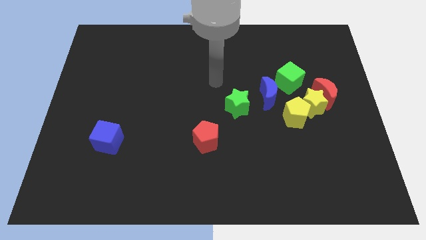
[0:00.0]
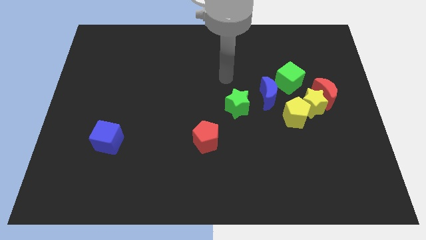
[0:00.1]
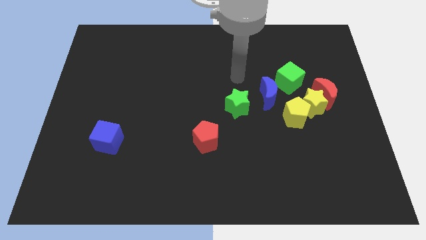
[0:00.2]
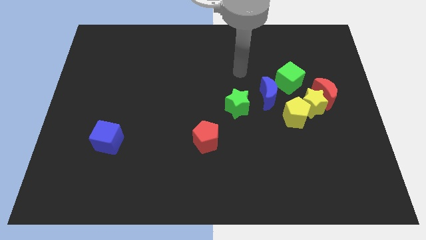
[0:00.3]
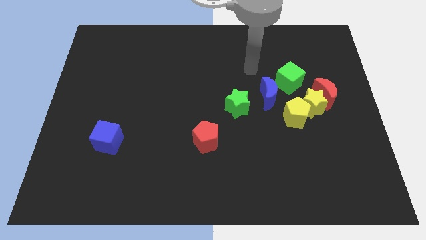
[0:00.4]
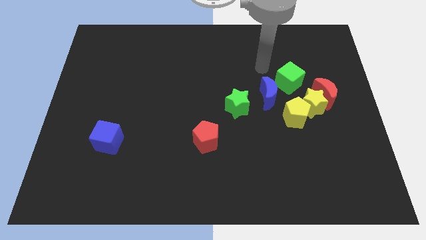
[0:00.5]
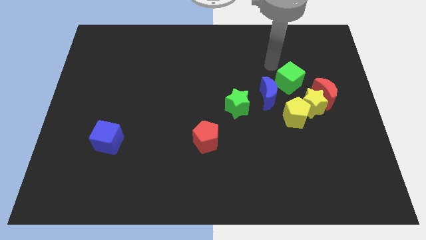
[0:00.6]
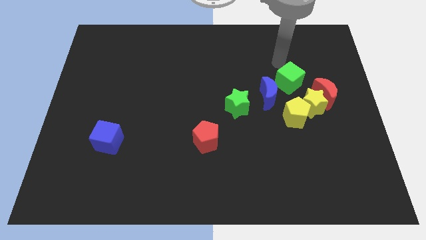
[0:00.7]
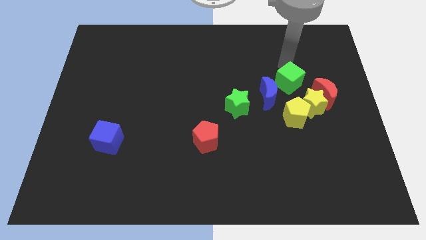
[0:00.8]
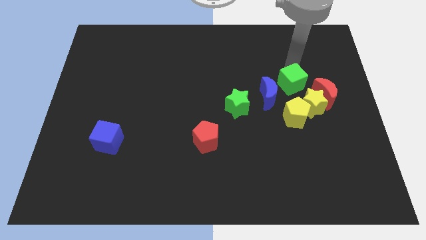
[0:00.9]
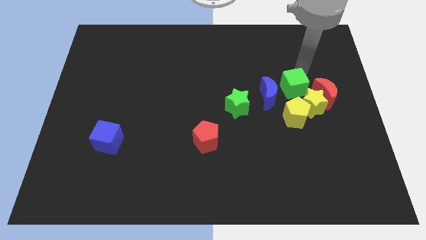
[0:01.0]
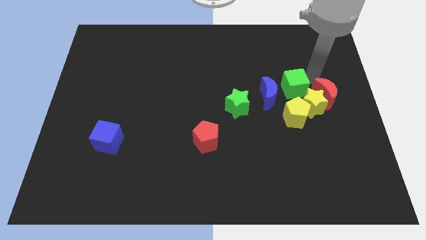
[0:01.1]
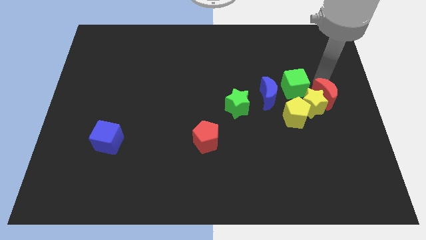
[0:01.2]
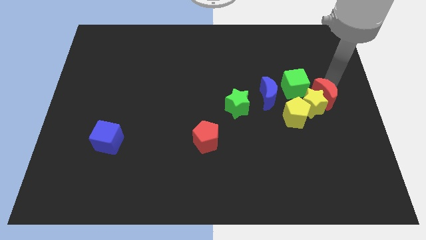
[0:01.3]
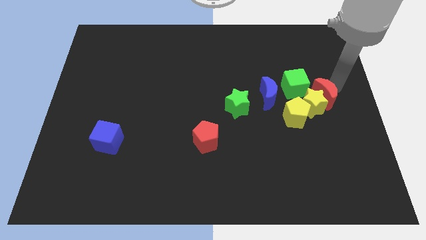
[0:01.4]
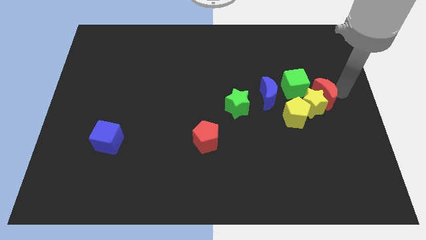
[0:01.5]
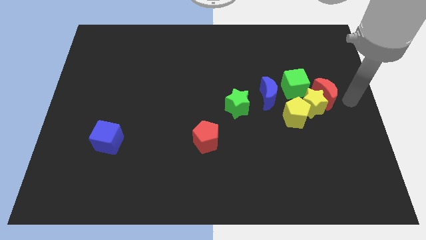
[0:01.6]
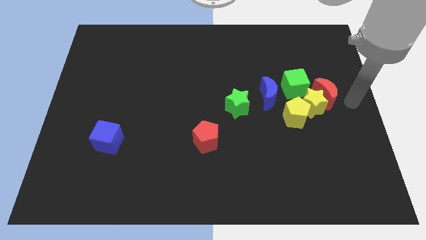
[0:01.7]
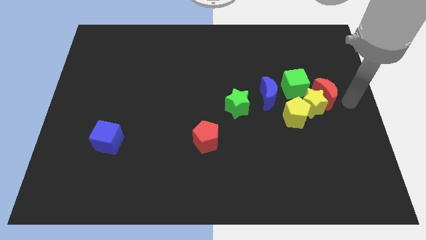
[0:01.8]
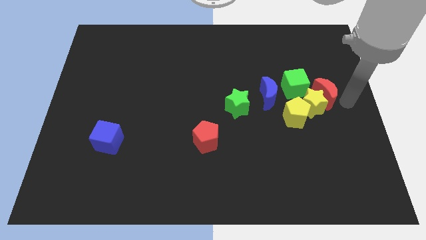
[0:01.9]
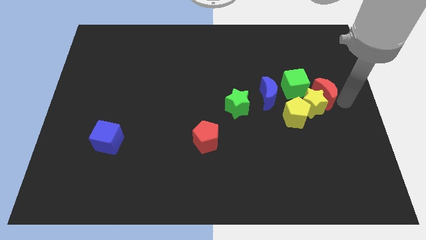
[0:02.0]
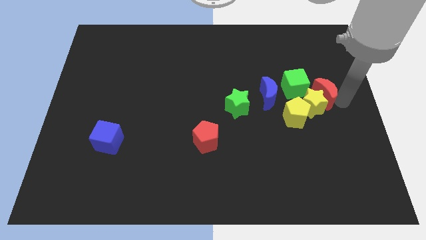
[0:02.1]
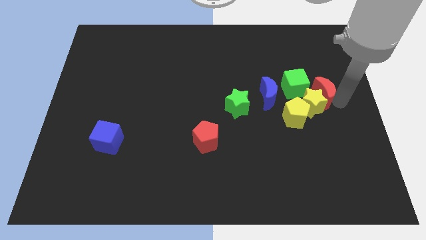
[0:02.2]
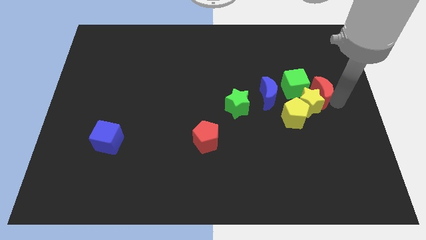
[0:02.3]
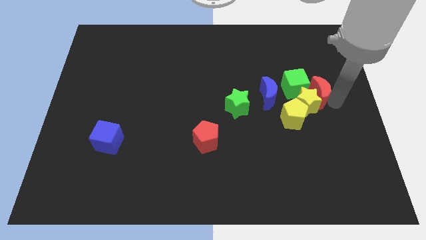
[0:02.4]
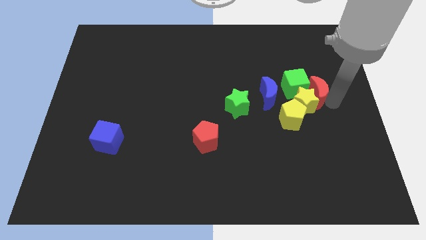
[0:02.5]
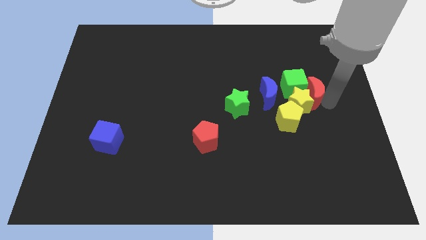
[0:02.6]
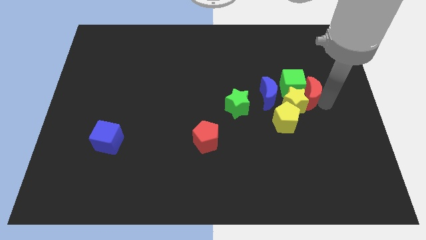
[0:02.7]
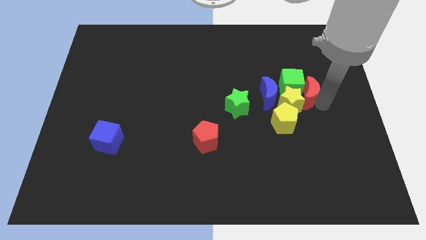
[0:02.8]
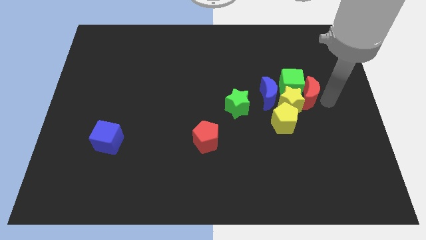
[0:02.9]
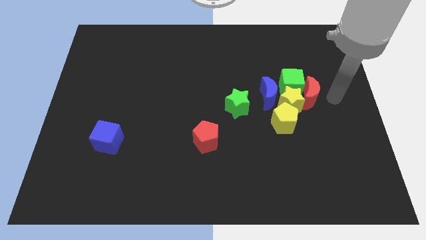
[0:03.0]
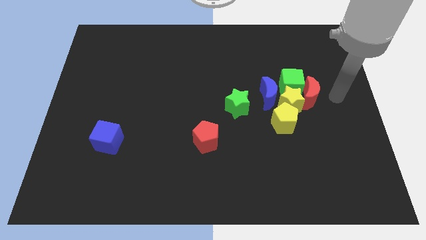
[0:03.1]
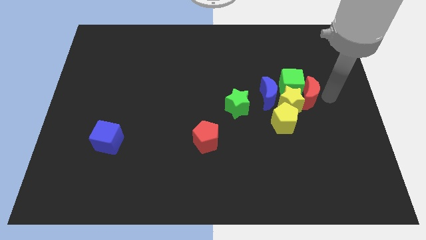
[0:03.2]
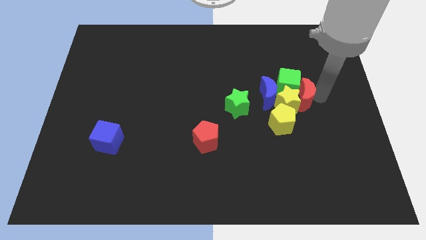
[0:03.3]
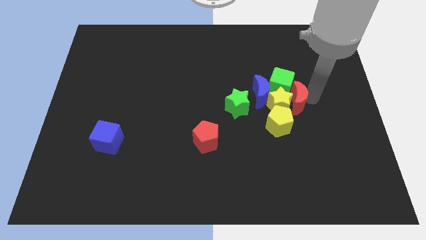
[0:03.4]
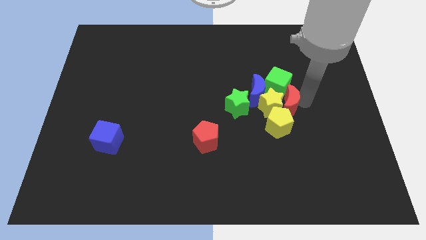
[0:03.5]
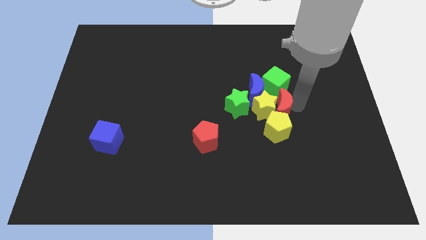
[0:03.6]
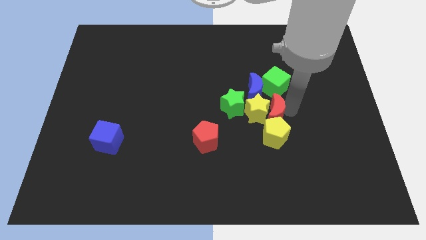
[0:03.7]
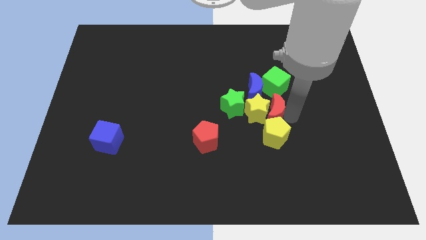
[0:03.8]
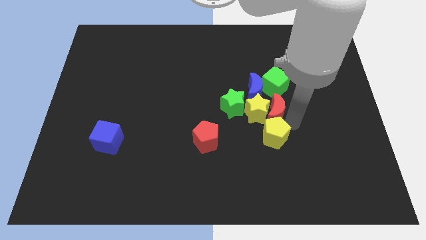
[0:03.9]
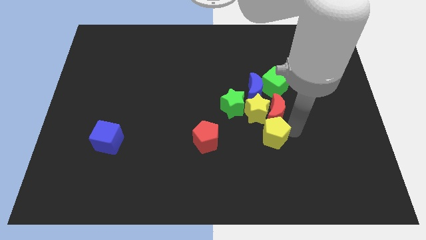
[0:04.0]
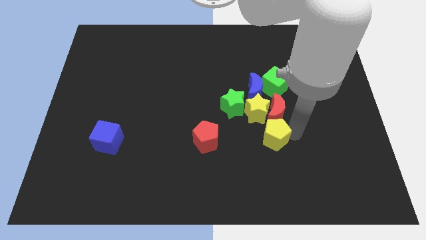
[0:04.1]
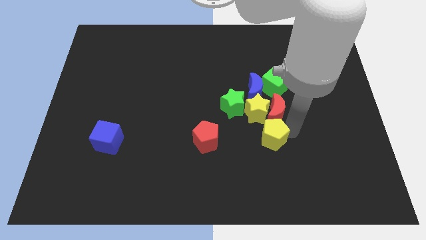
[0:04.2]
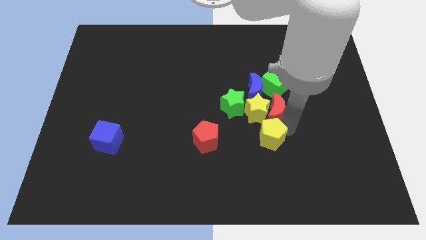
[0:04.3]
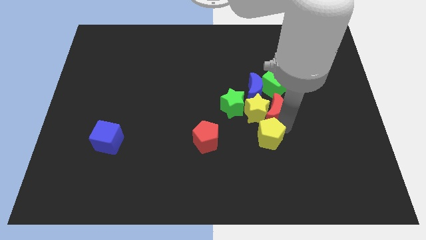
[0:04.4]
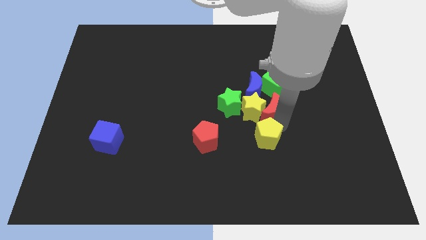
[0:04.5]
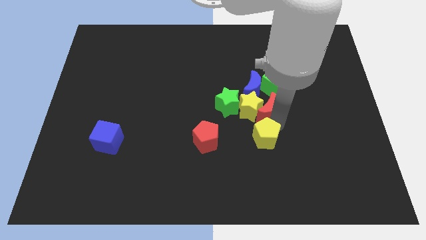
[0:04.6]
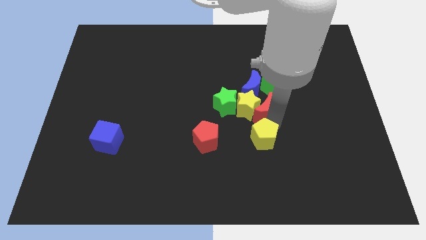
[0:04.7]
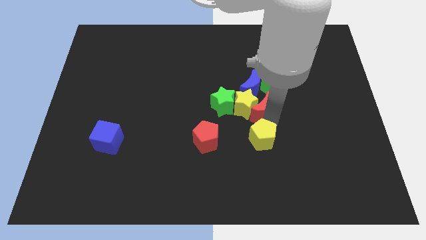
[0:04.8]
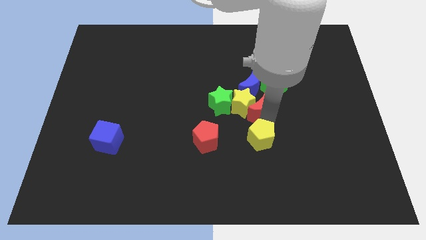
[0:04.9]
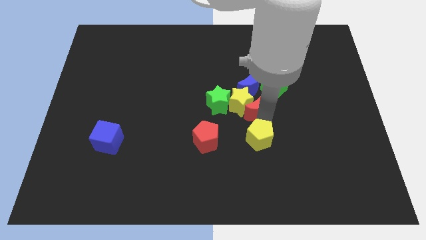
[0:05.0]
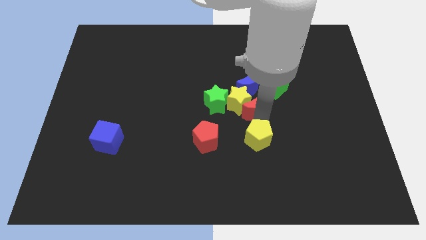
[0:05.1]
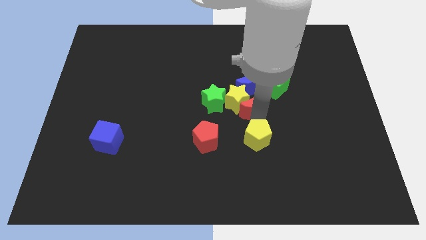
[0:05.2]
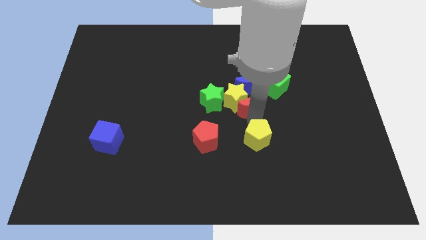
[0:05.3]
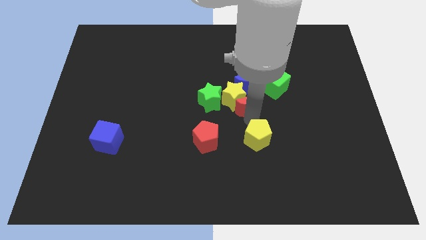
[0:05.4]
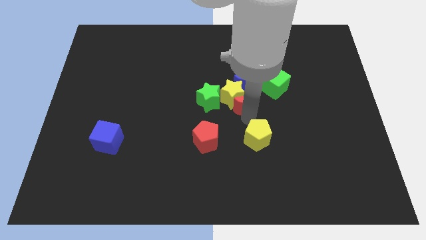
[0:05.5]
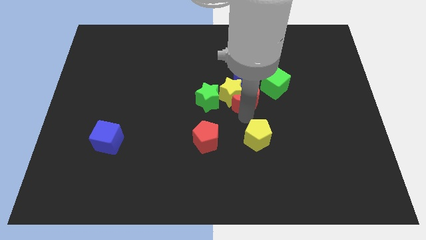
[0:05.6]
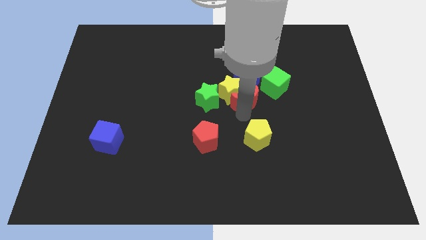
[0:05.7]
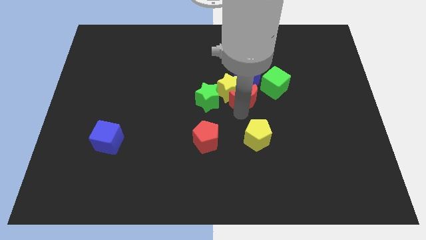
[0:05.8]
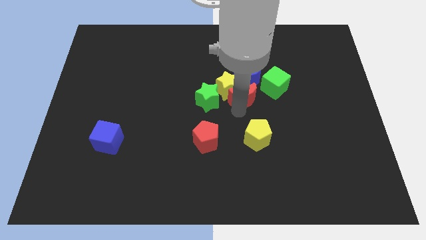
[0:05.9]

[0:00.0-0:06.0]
put the red moon close to the blue moon

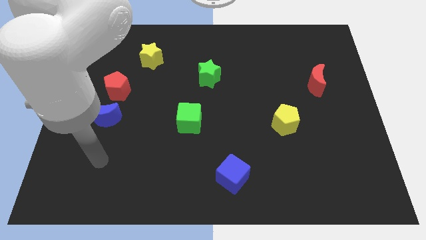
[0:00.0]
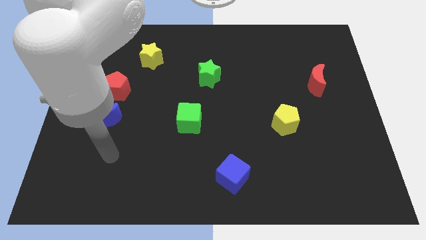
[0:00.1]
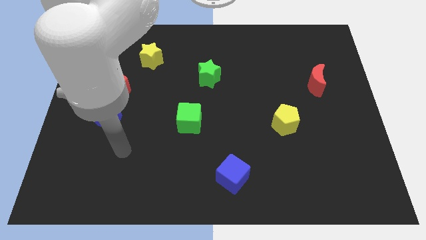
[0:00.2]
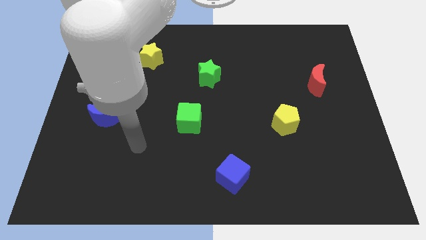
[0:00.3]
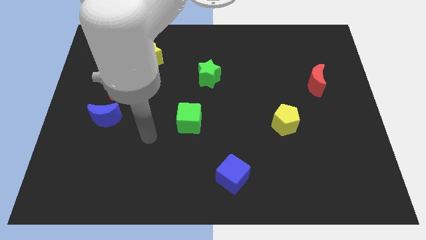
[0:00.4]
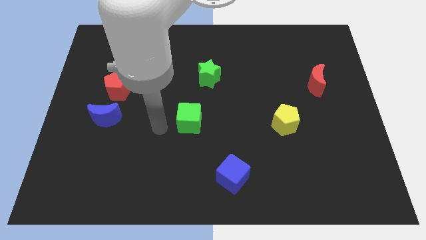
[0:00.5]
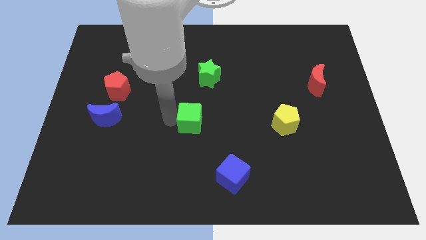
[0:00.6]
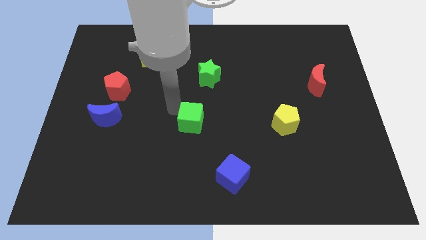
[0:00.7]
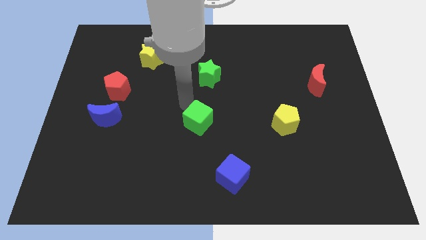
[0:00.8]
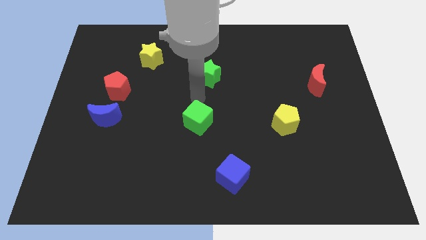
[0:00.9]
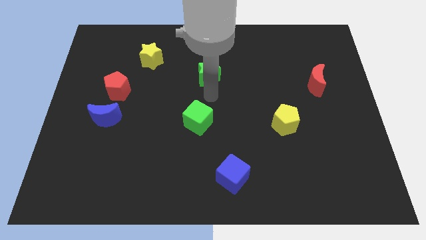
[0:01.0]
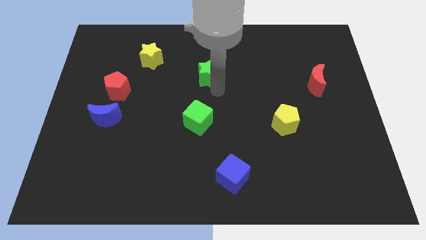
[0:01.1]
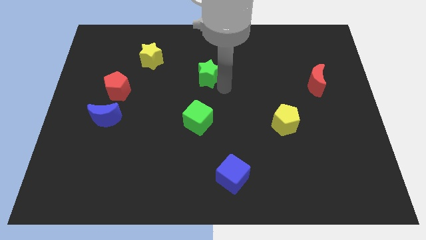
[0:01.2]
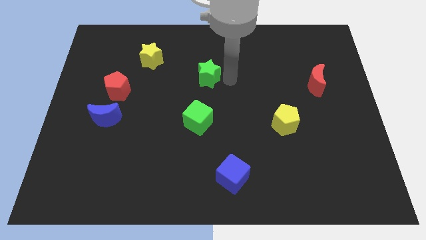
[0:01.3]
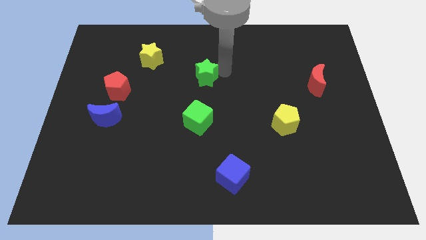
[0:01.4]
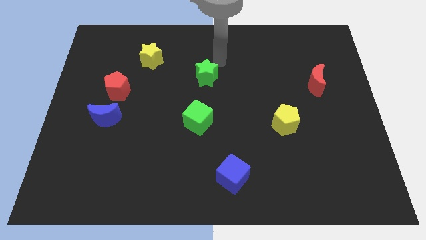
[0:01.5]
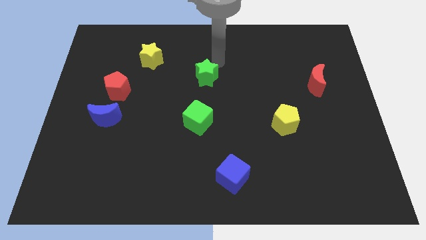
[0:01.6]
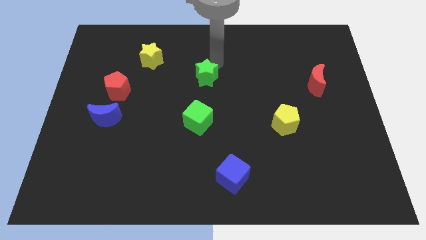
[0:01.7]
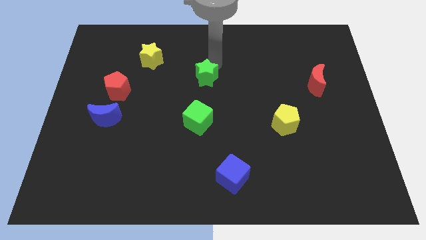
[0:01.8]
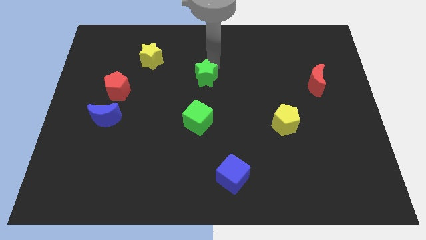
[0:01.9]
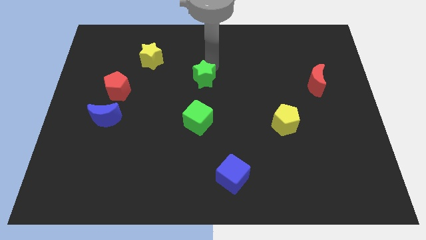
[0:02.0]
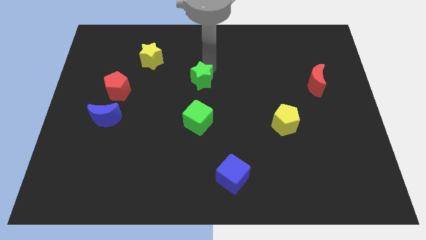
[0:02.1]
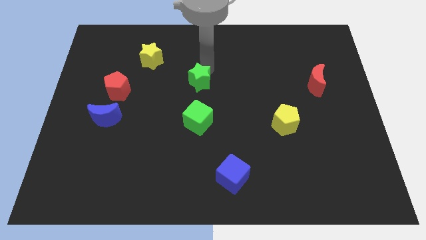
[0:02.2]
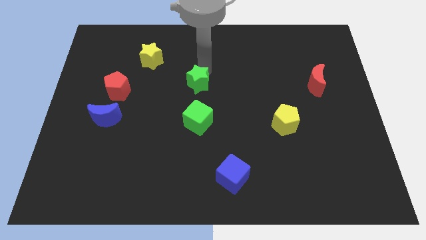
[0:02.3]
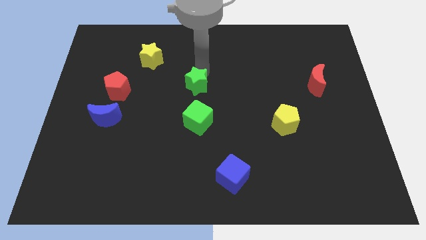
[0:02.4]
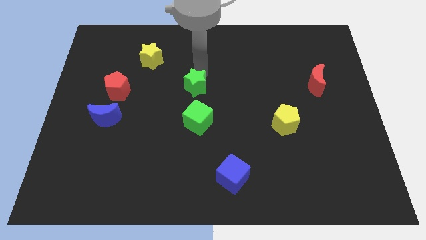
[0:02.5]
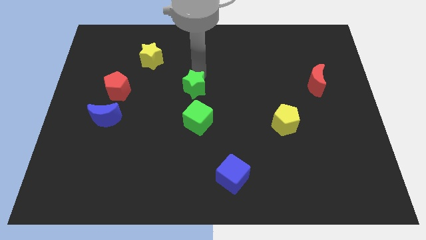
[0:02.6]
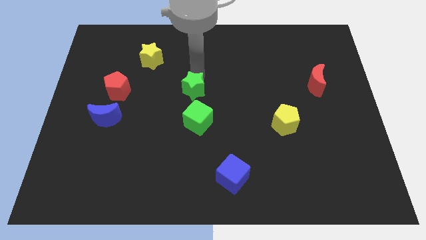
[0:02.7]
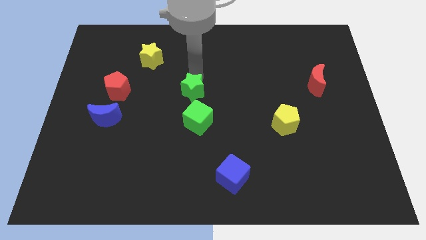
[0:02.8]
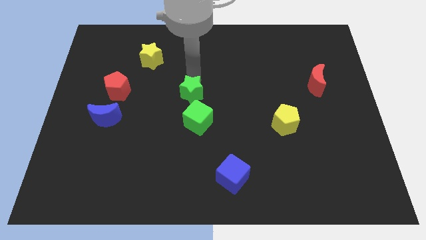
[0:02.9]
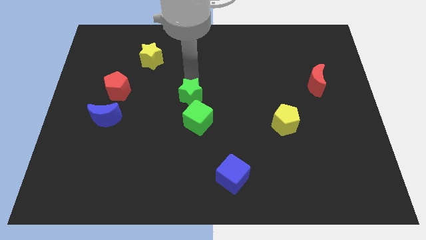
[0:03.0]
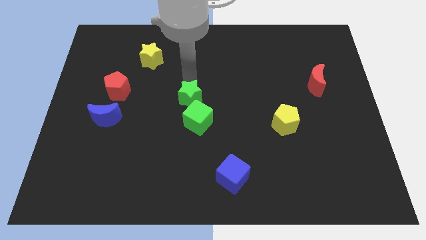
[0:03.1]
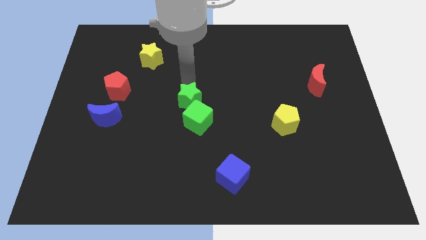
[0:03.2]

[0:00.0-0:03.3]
move the green star towards the green cube
